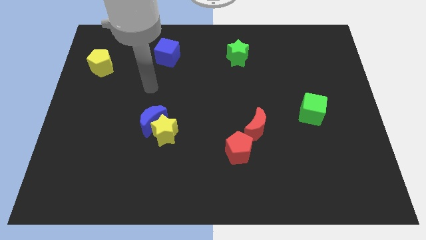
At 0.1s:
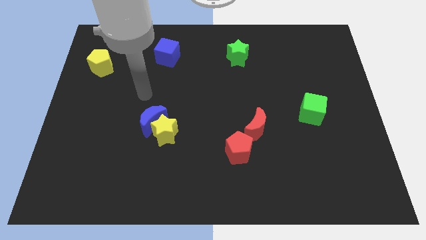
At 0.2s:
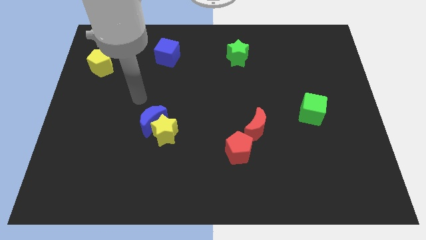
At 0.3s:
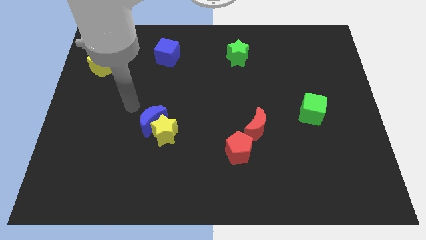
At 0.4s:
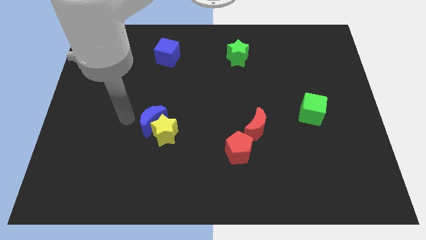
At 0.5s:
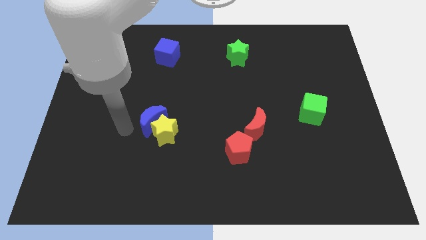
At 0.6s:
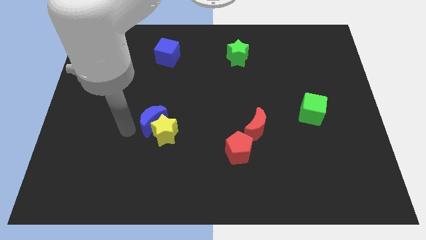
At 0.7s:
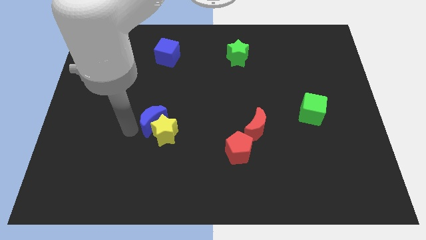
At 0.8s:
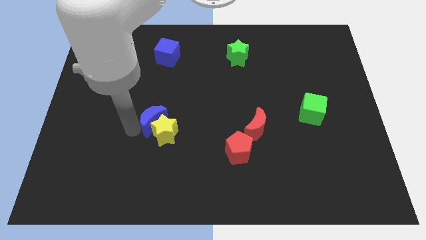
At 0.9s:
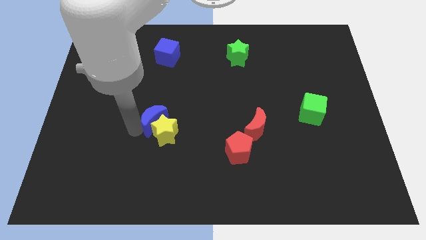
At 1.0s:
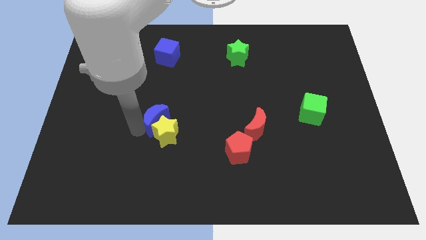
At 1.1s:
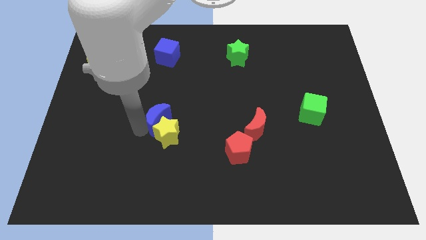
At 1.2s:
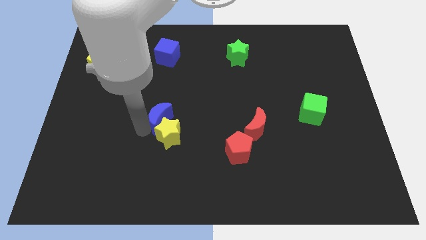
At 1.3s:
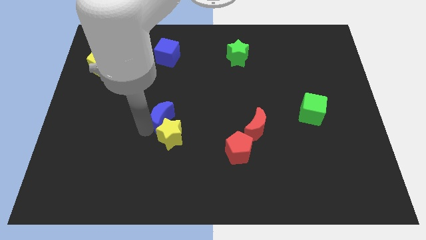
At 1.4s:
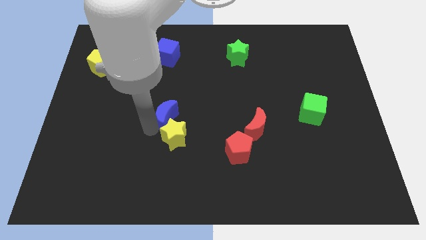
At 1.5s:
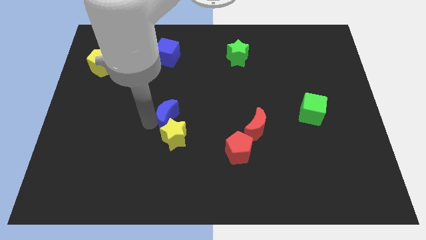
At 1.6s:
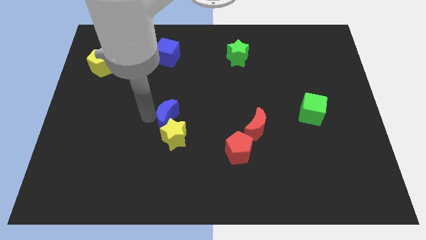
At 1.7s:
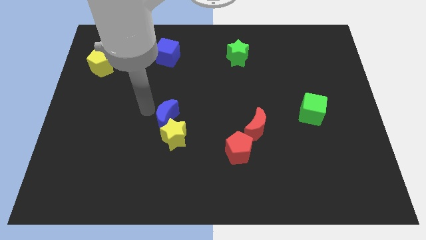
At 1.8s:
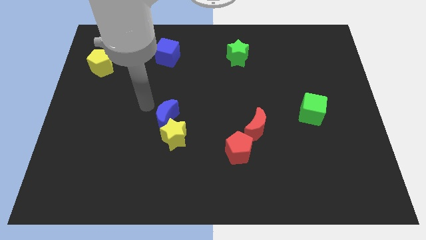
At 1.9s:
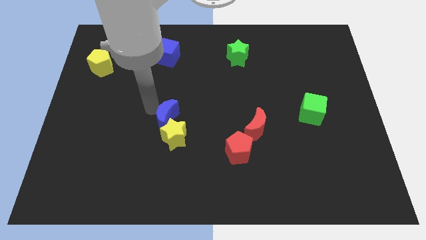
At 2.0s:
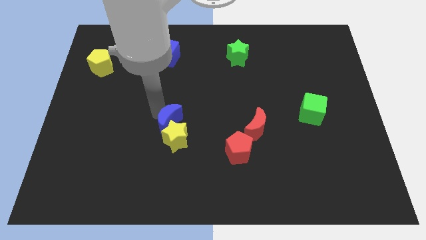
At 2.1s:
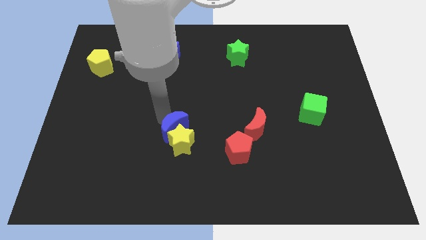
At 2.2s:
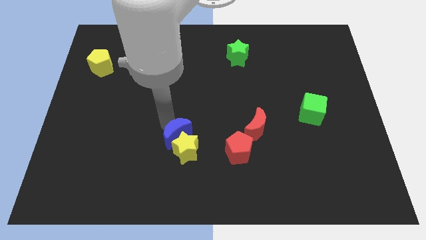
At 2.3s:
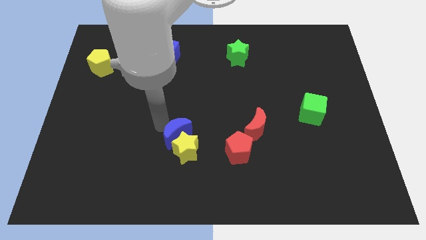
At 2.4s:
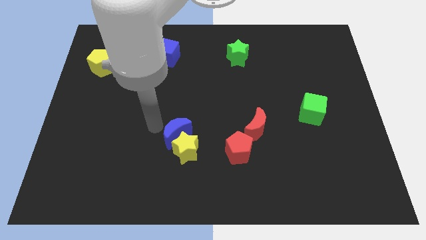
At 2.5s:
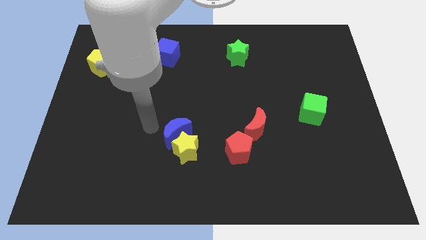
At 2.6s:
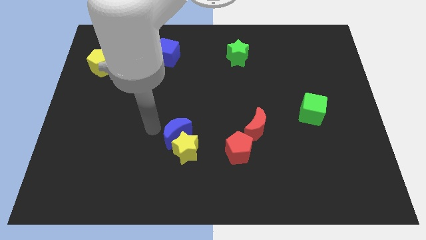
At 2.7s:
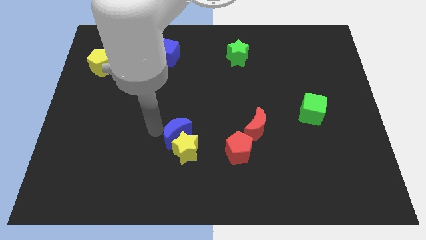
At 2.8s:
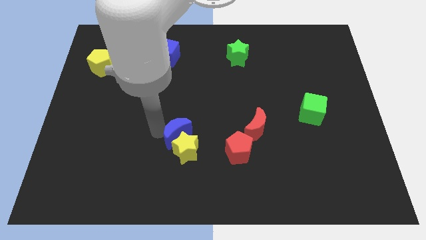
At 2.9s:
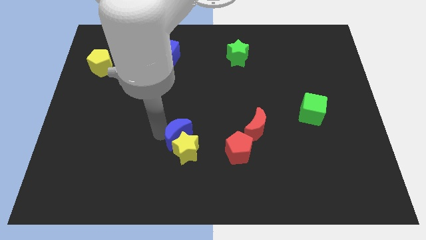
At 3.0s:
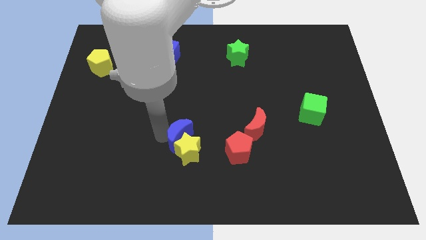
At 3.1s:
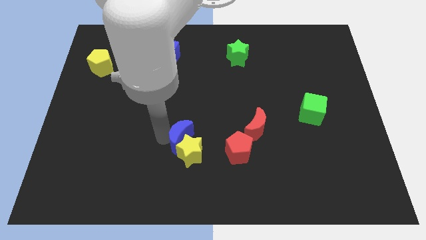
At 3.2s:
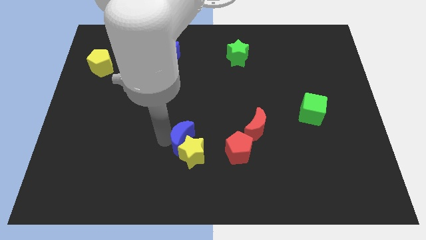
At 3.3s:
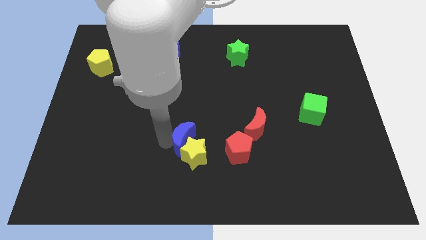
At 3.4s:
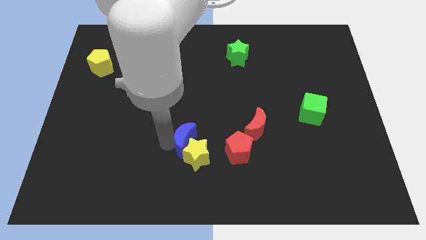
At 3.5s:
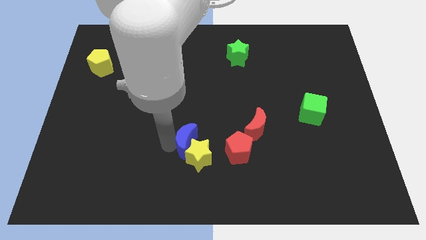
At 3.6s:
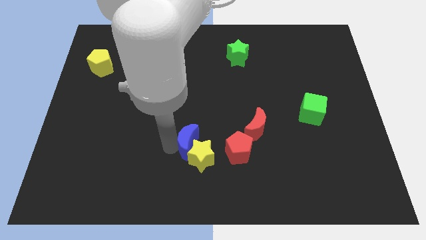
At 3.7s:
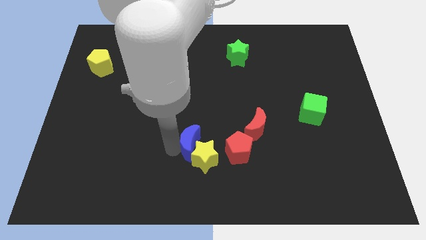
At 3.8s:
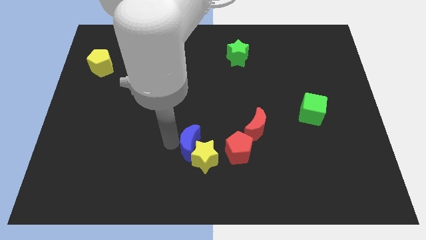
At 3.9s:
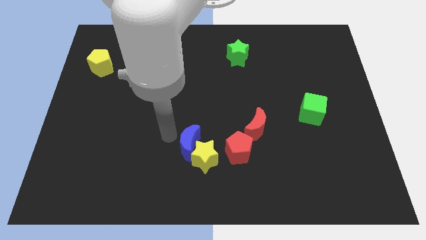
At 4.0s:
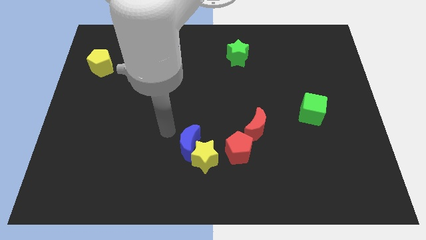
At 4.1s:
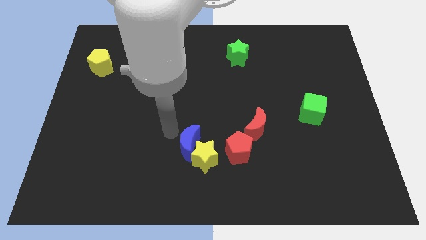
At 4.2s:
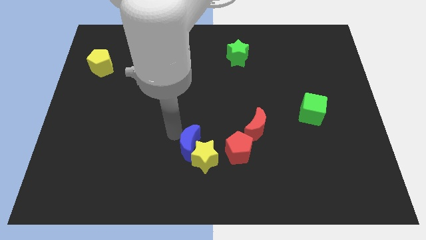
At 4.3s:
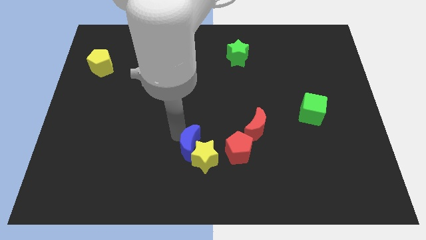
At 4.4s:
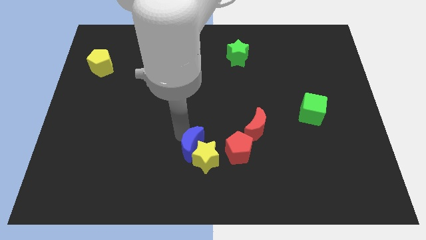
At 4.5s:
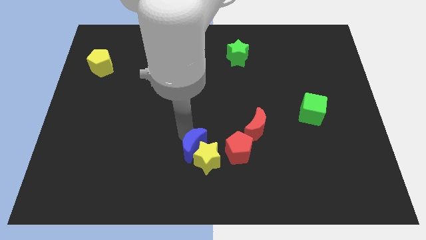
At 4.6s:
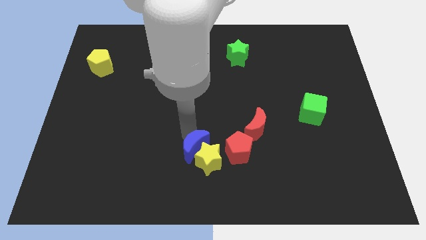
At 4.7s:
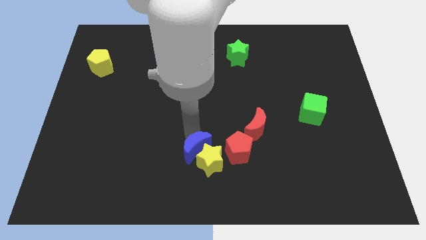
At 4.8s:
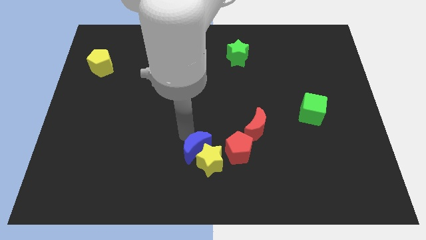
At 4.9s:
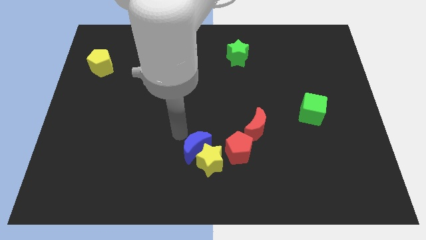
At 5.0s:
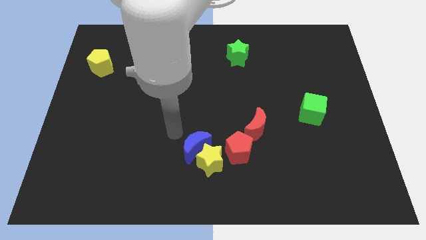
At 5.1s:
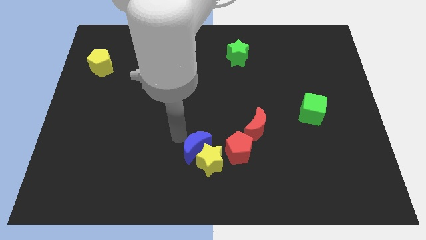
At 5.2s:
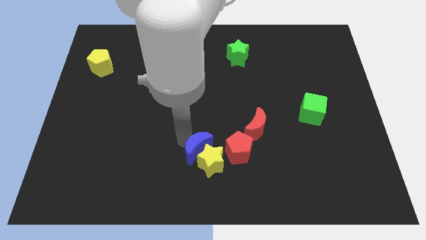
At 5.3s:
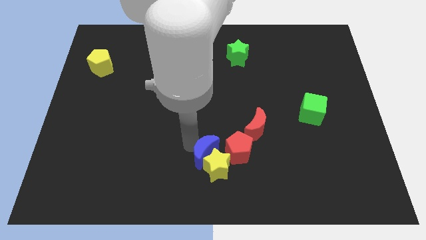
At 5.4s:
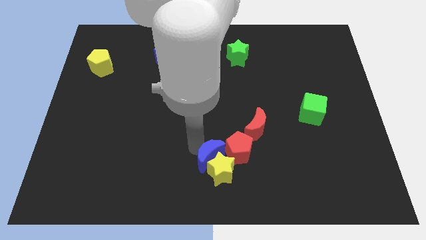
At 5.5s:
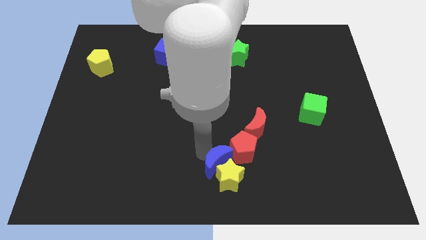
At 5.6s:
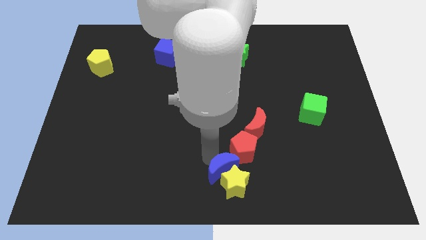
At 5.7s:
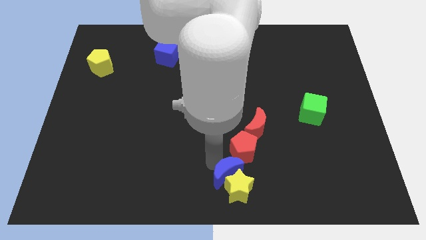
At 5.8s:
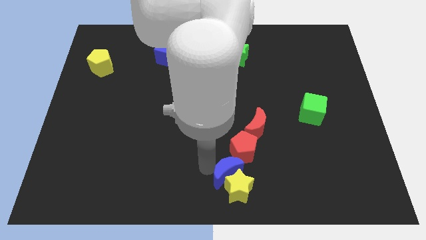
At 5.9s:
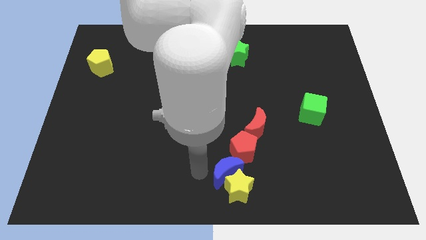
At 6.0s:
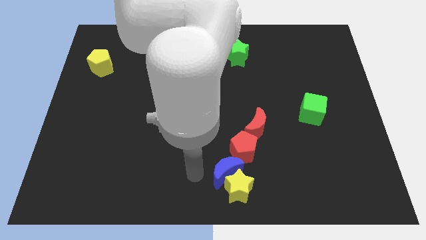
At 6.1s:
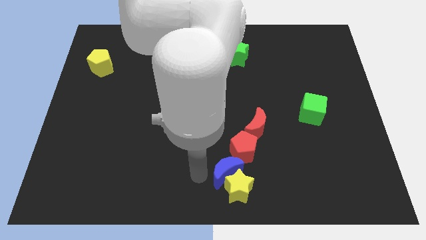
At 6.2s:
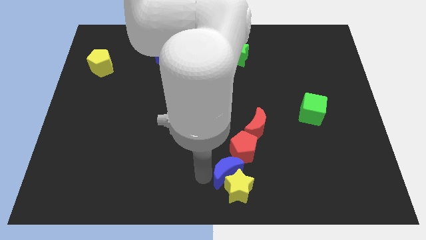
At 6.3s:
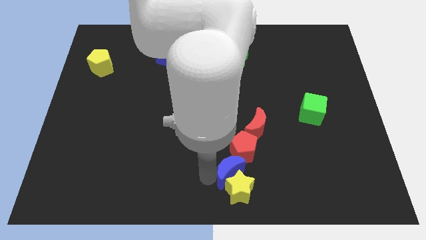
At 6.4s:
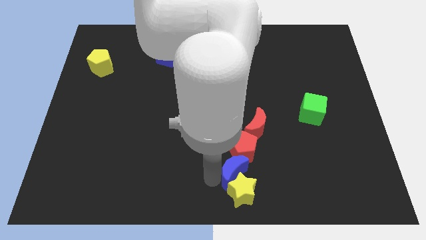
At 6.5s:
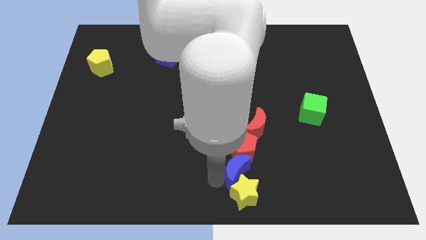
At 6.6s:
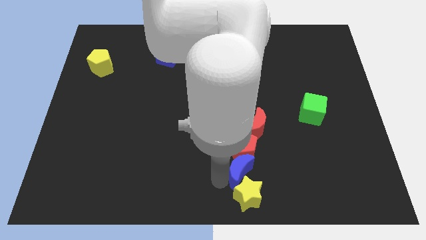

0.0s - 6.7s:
slide the blue moon diagonally down and to the right of the red pentagon

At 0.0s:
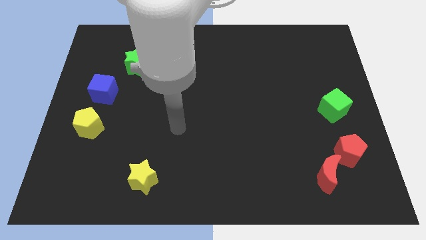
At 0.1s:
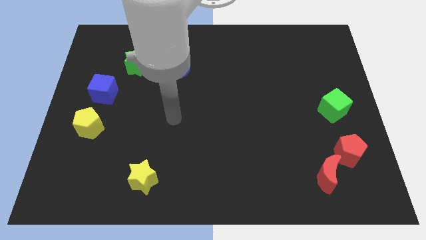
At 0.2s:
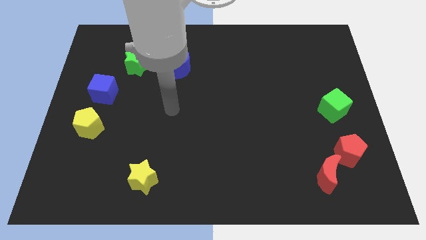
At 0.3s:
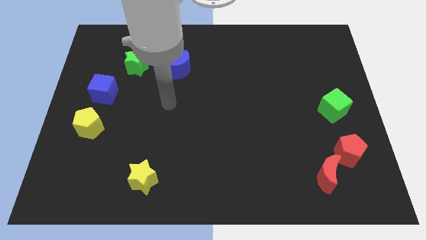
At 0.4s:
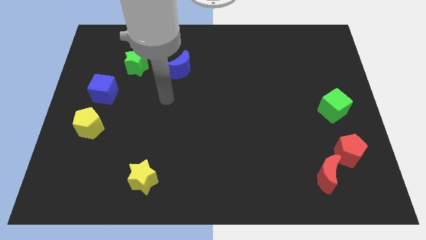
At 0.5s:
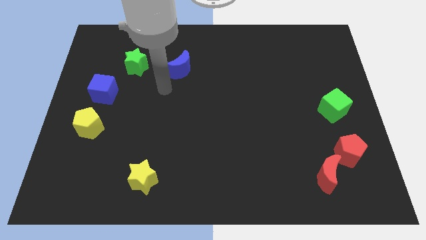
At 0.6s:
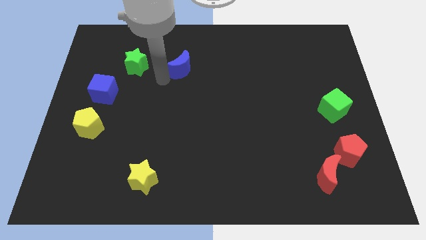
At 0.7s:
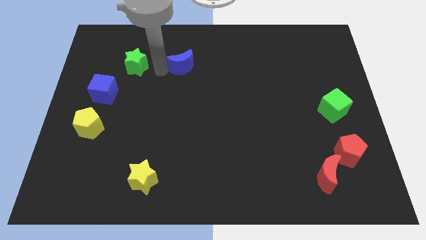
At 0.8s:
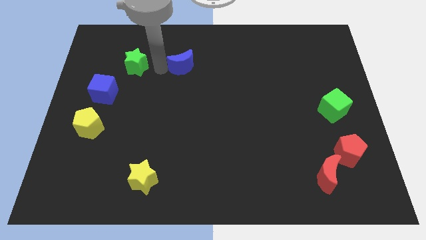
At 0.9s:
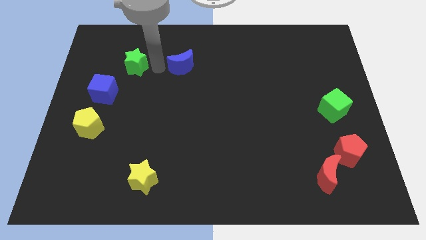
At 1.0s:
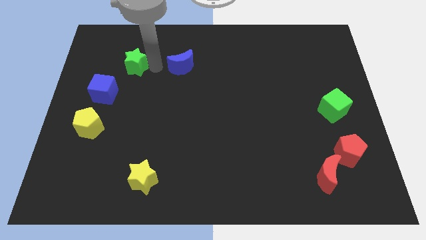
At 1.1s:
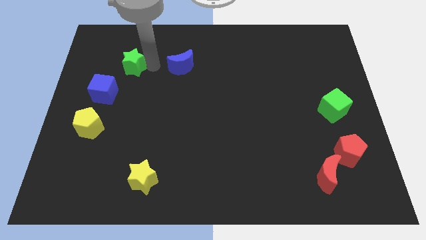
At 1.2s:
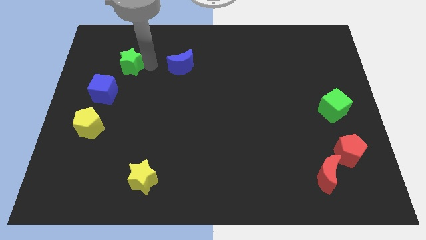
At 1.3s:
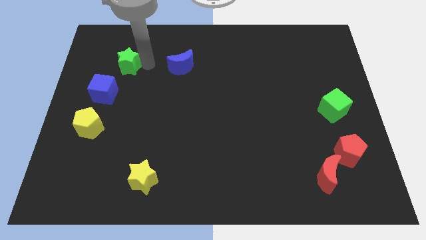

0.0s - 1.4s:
push the green star above the blue cube
